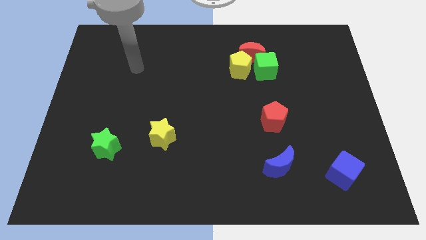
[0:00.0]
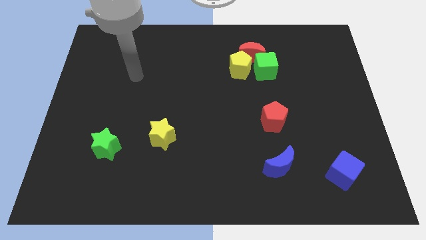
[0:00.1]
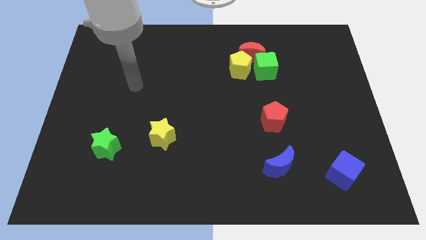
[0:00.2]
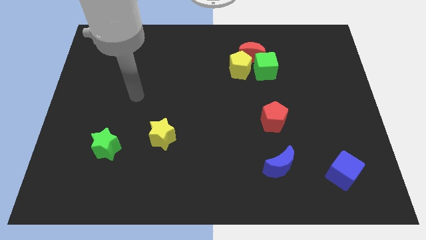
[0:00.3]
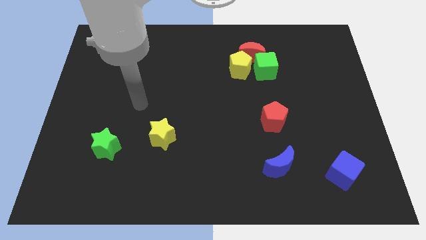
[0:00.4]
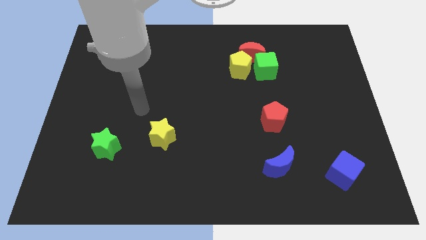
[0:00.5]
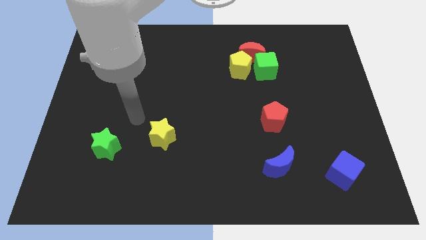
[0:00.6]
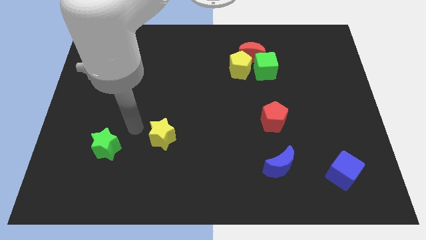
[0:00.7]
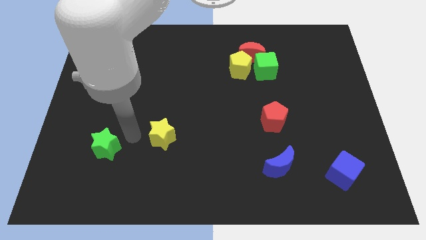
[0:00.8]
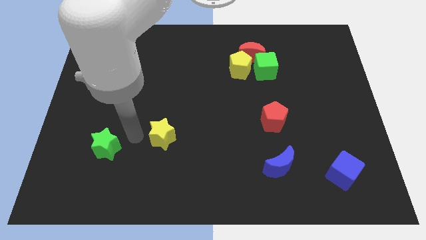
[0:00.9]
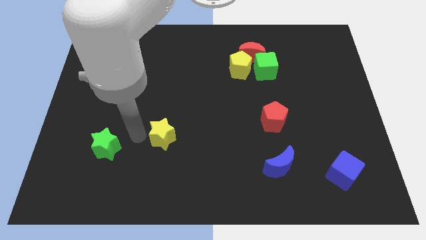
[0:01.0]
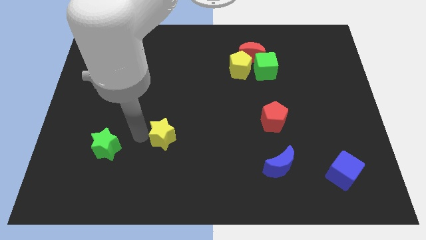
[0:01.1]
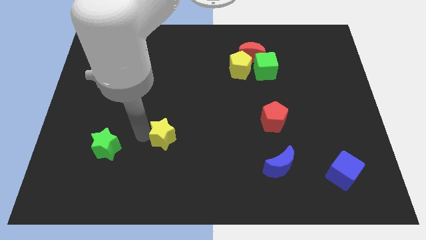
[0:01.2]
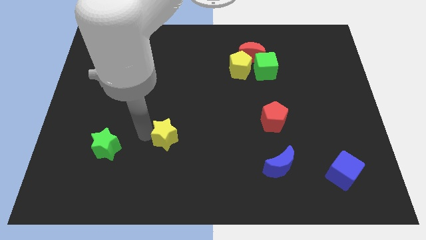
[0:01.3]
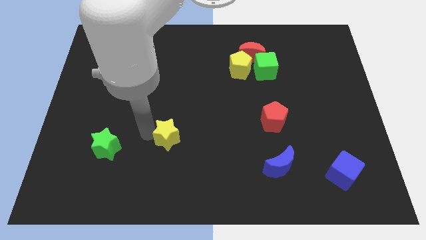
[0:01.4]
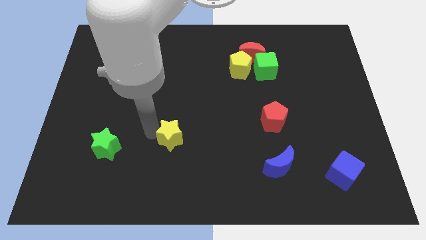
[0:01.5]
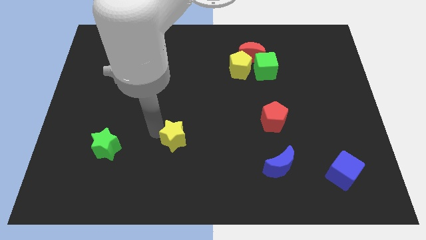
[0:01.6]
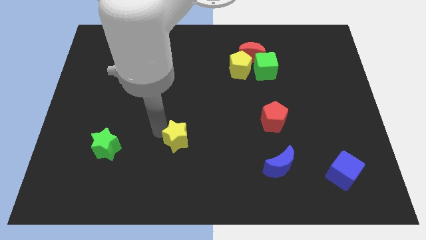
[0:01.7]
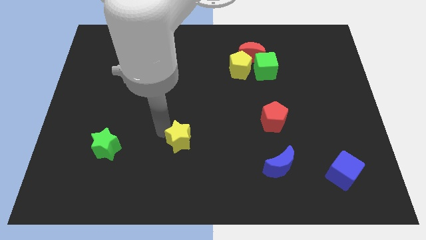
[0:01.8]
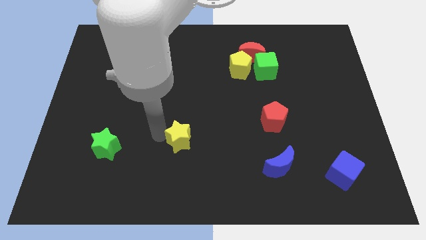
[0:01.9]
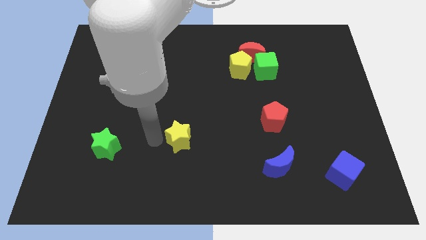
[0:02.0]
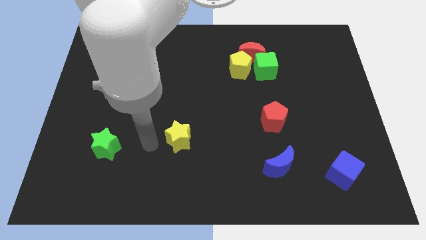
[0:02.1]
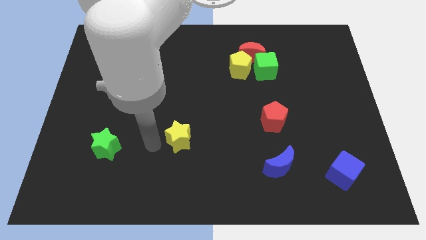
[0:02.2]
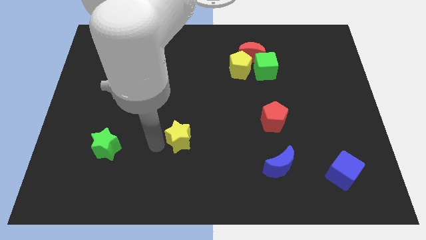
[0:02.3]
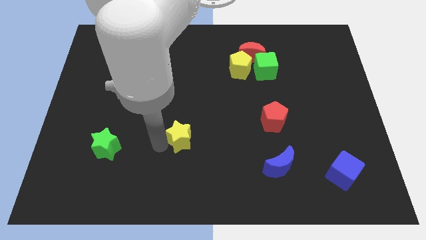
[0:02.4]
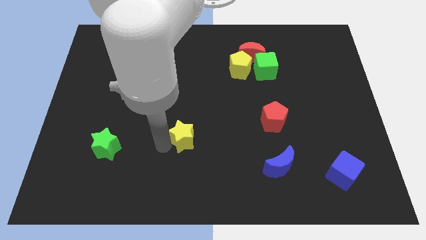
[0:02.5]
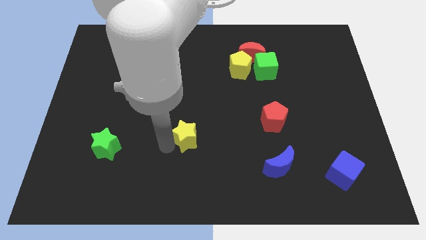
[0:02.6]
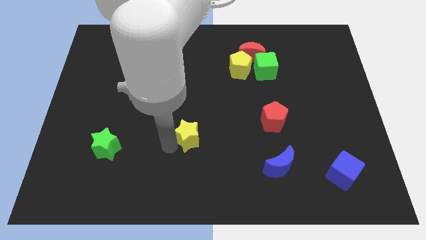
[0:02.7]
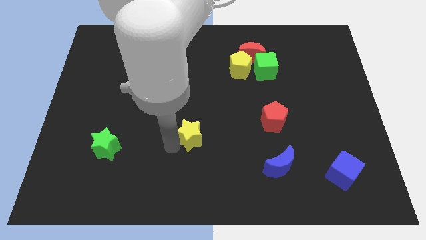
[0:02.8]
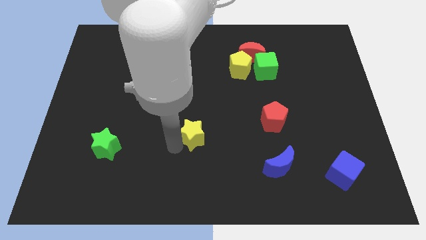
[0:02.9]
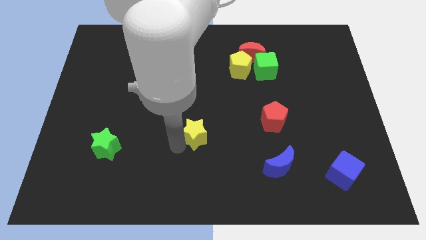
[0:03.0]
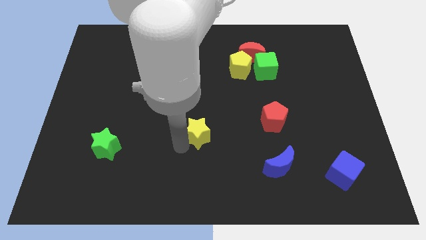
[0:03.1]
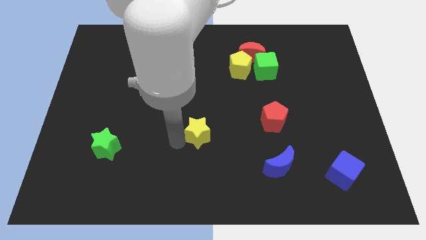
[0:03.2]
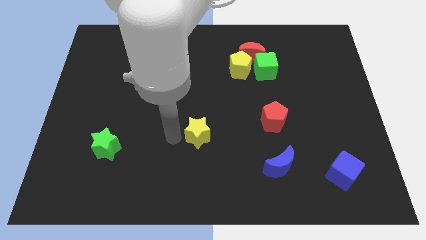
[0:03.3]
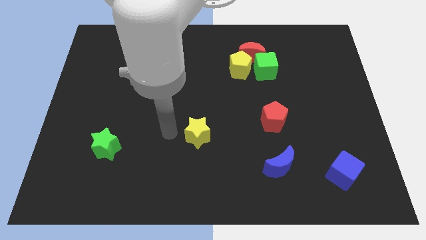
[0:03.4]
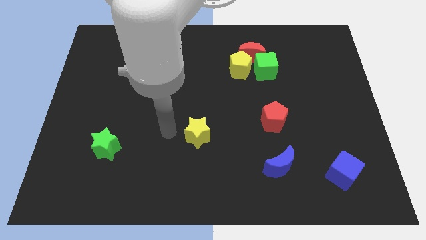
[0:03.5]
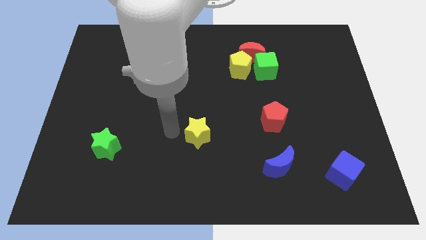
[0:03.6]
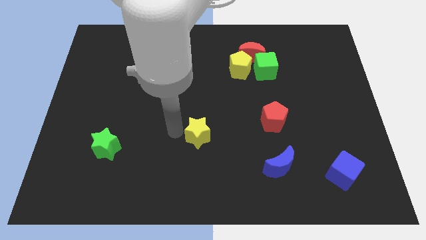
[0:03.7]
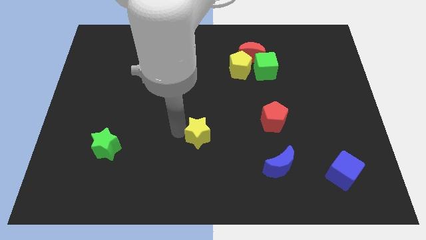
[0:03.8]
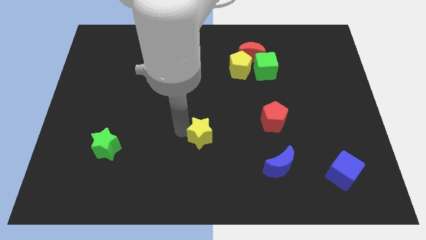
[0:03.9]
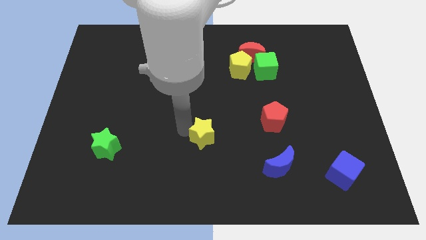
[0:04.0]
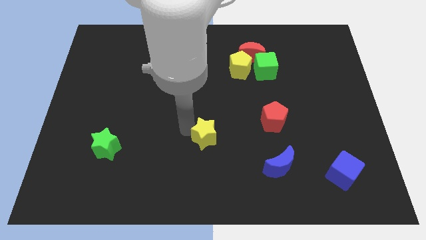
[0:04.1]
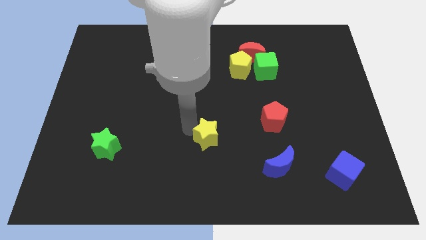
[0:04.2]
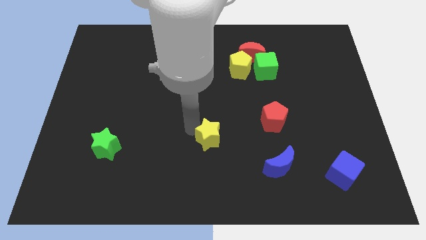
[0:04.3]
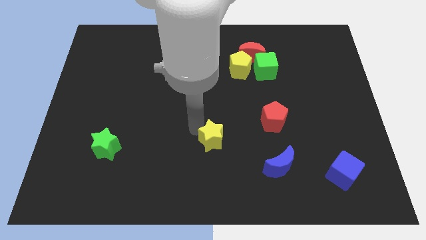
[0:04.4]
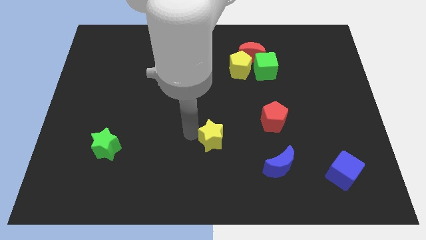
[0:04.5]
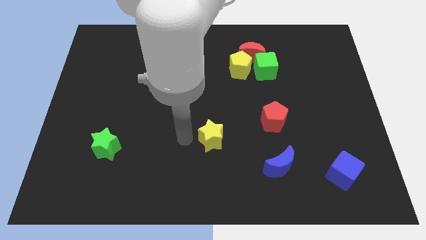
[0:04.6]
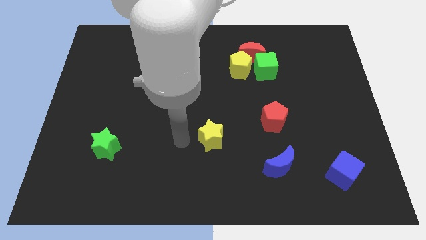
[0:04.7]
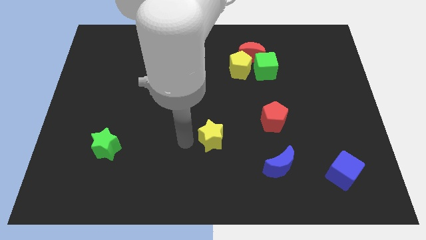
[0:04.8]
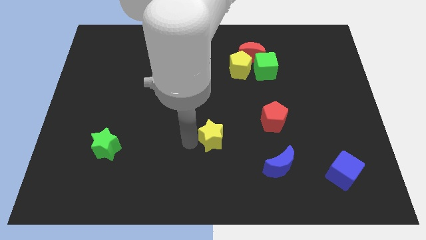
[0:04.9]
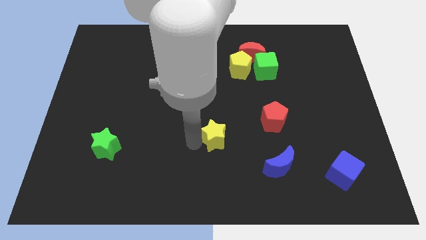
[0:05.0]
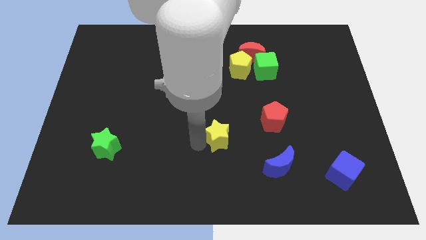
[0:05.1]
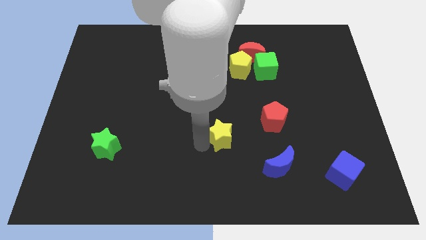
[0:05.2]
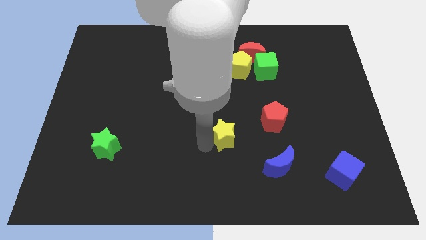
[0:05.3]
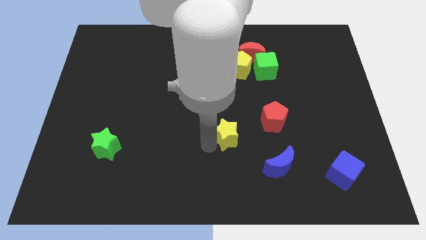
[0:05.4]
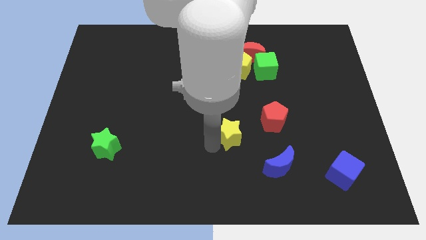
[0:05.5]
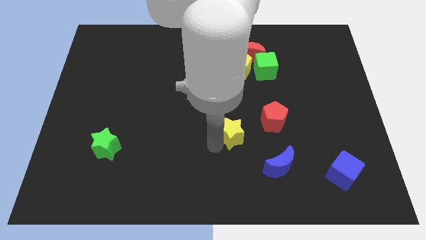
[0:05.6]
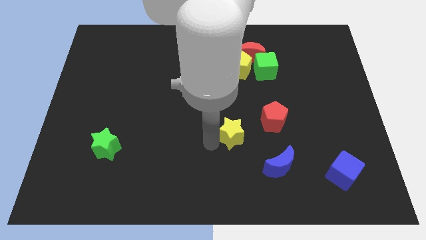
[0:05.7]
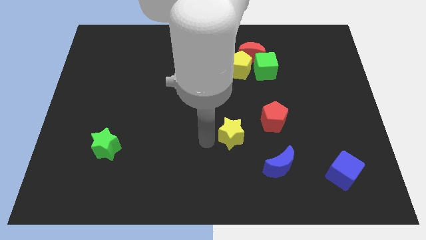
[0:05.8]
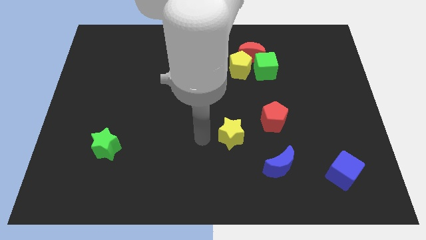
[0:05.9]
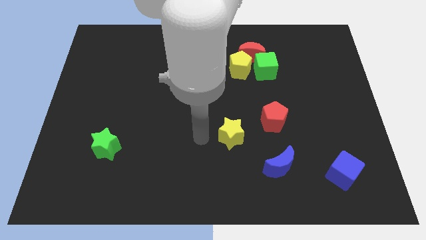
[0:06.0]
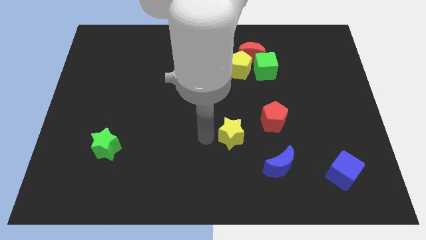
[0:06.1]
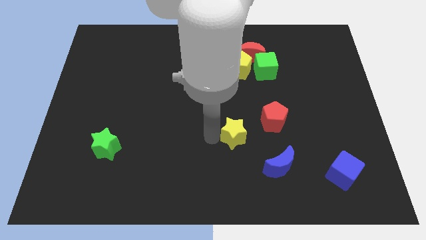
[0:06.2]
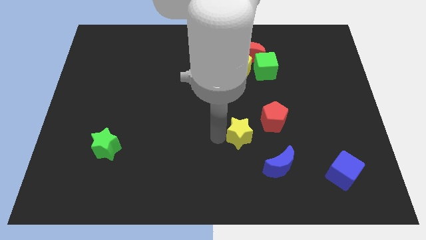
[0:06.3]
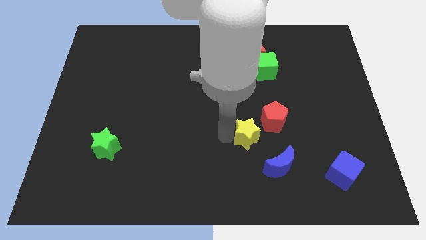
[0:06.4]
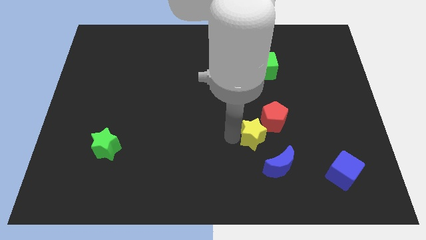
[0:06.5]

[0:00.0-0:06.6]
move the yellow star to the right

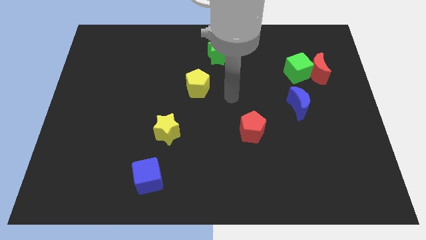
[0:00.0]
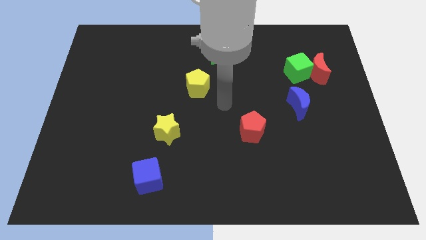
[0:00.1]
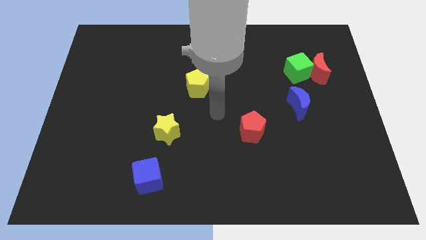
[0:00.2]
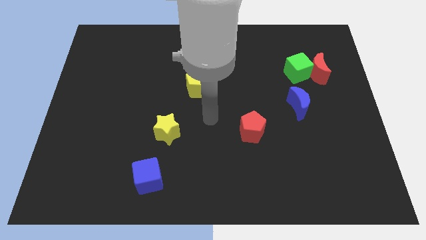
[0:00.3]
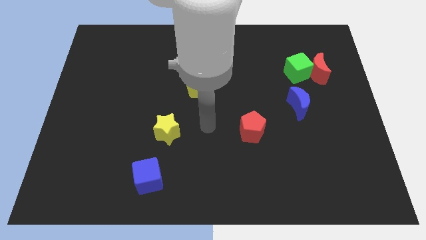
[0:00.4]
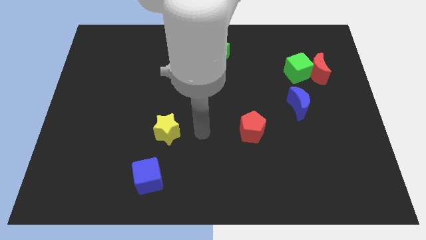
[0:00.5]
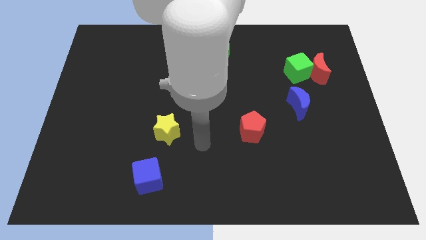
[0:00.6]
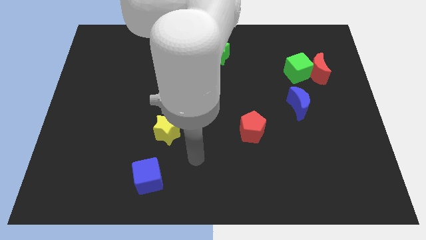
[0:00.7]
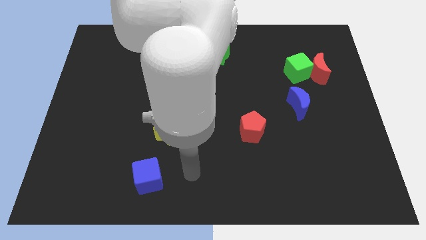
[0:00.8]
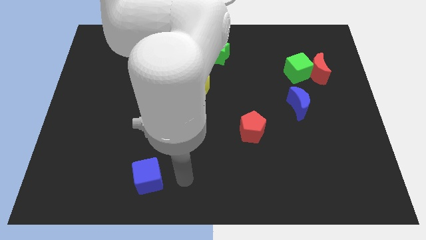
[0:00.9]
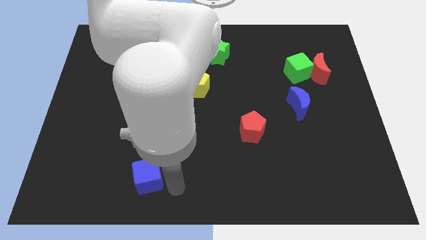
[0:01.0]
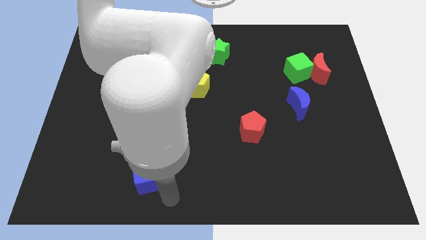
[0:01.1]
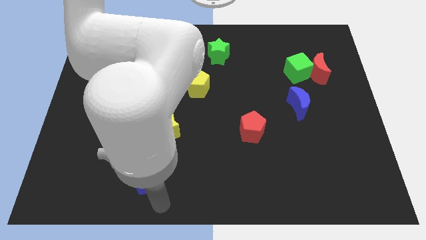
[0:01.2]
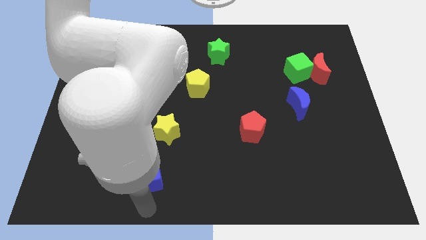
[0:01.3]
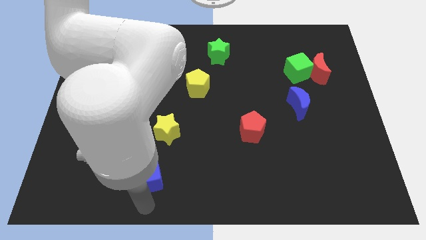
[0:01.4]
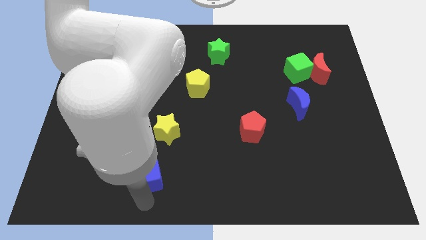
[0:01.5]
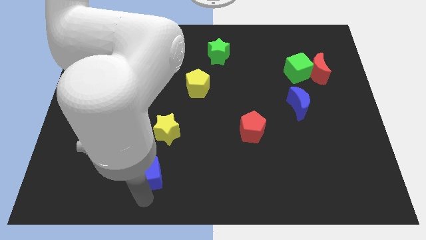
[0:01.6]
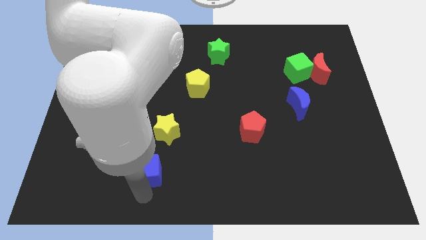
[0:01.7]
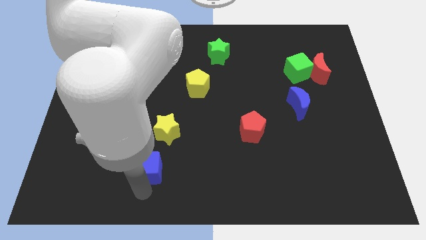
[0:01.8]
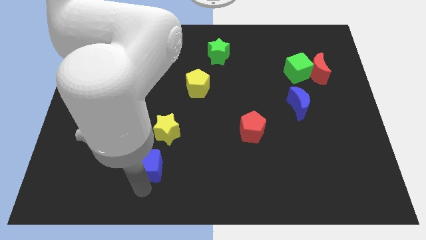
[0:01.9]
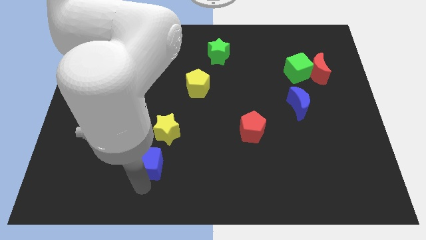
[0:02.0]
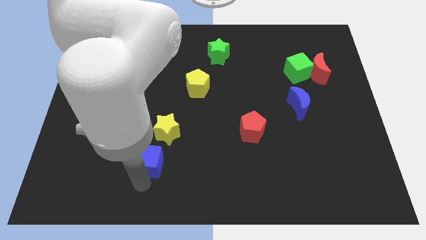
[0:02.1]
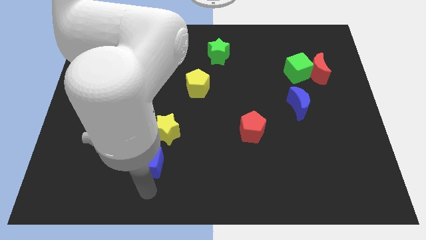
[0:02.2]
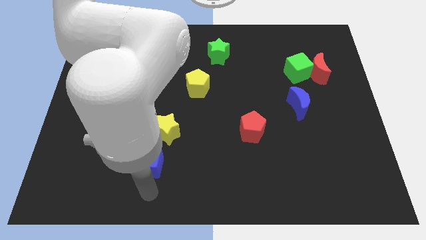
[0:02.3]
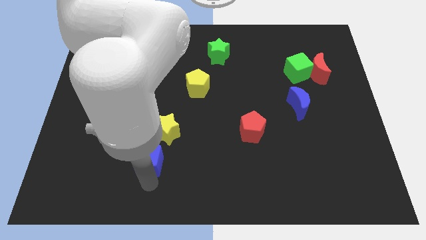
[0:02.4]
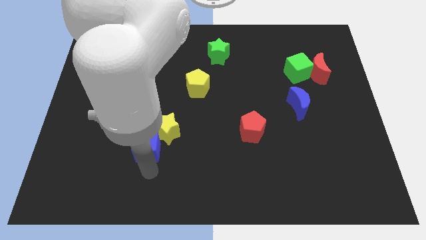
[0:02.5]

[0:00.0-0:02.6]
slide the blue cube up a bit
